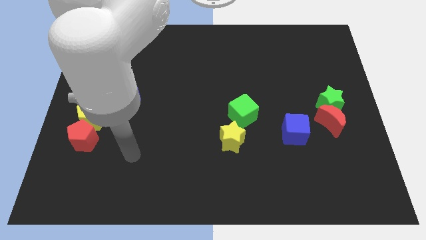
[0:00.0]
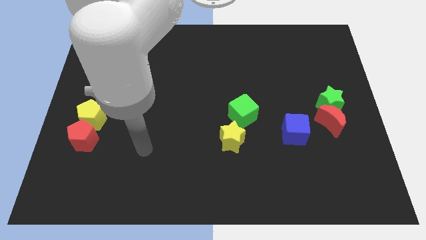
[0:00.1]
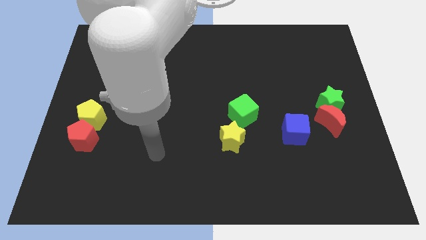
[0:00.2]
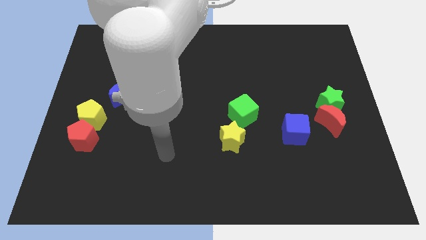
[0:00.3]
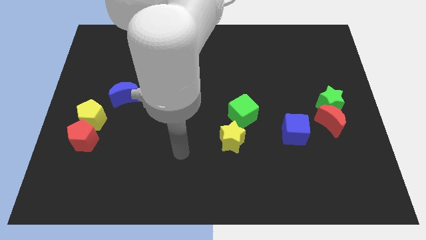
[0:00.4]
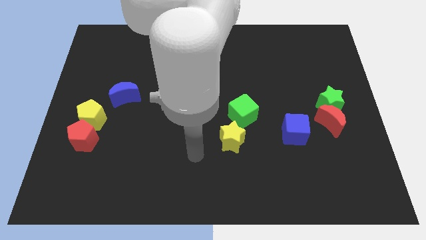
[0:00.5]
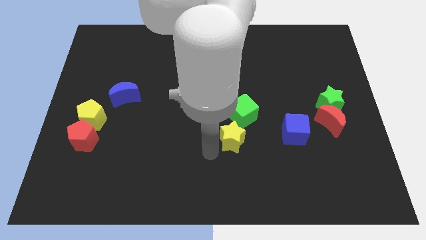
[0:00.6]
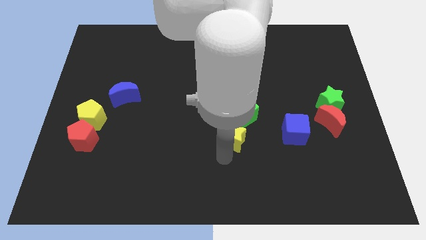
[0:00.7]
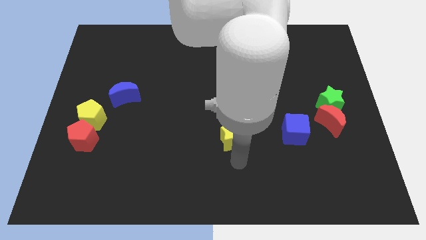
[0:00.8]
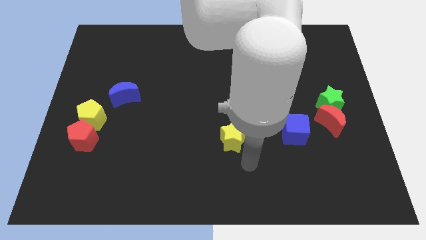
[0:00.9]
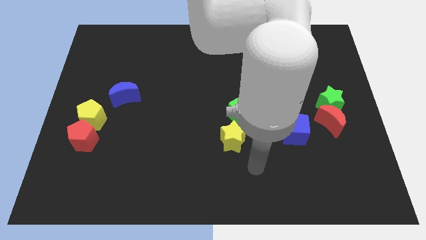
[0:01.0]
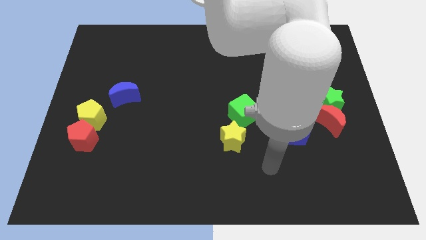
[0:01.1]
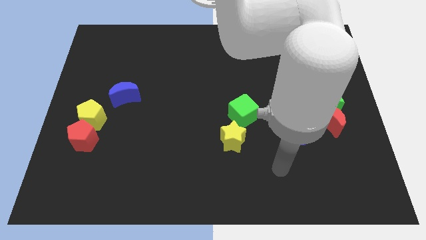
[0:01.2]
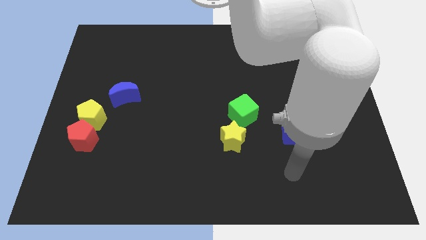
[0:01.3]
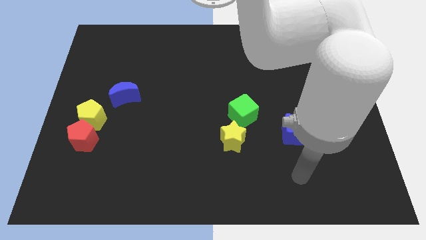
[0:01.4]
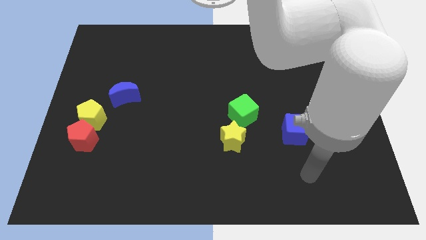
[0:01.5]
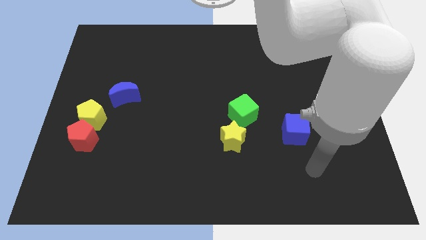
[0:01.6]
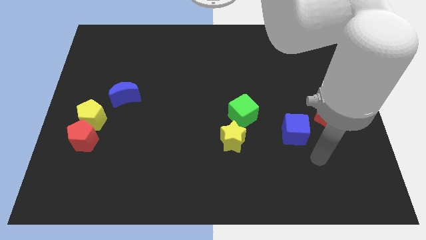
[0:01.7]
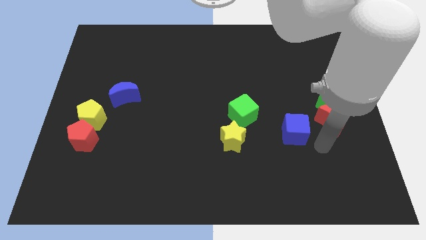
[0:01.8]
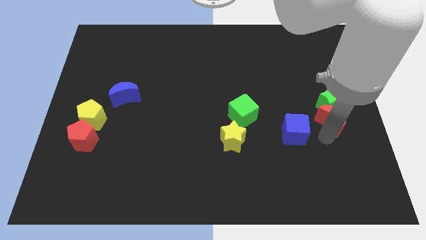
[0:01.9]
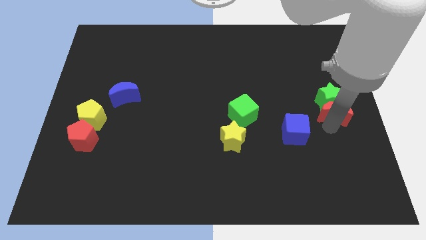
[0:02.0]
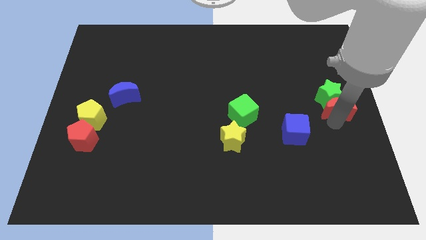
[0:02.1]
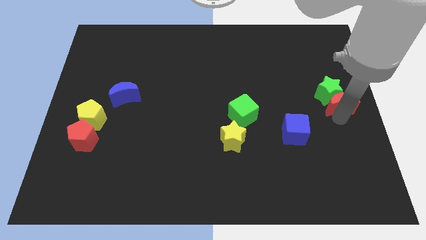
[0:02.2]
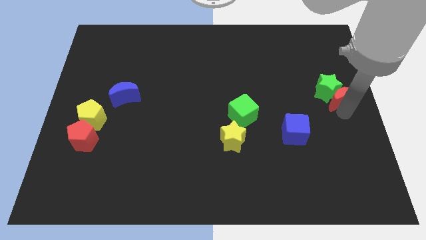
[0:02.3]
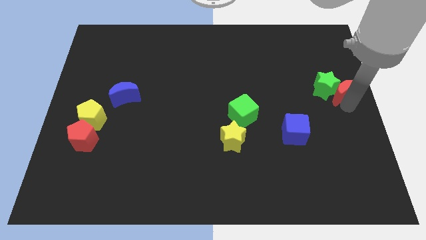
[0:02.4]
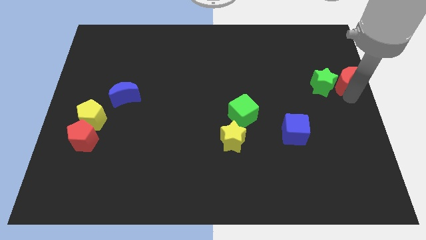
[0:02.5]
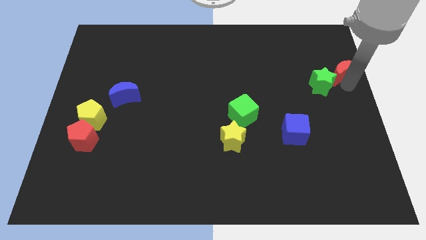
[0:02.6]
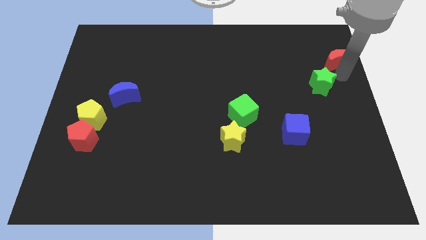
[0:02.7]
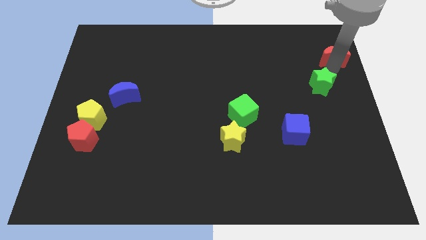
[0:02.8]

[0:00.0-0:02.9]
separate the green star from the red moon

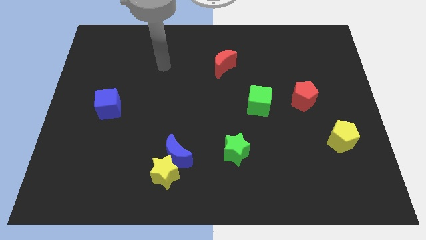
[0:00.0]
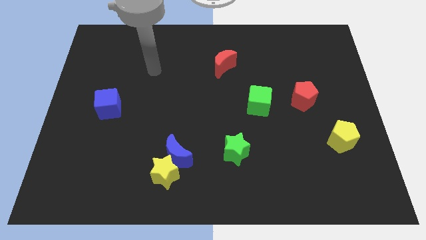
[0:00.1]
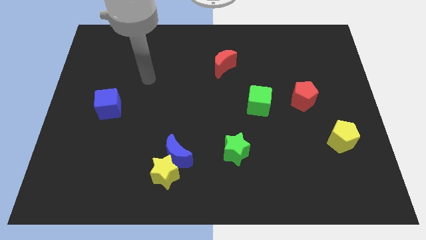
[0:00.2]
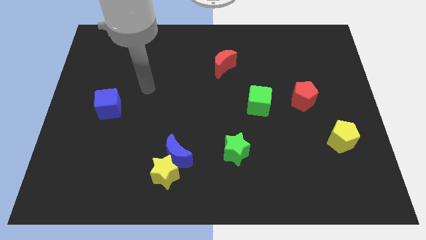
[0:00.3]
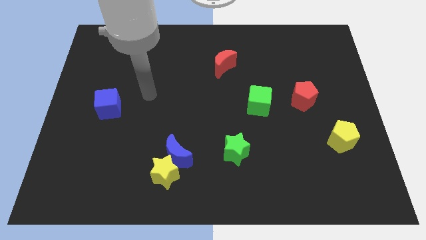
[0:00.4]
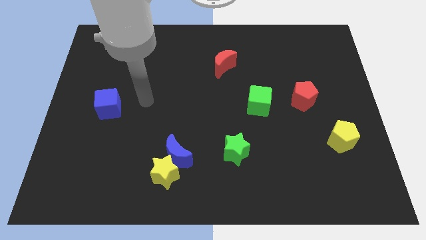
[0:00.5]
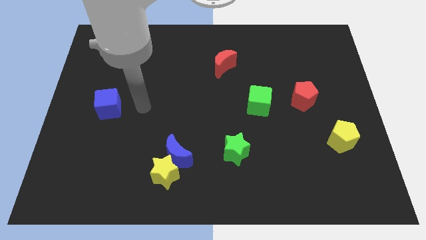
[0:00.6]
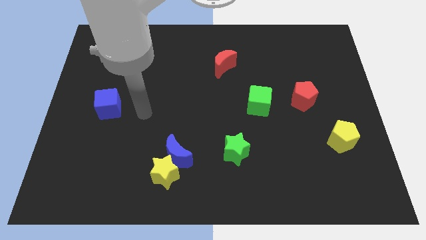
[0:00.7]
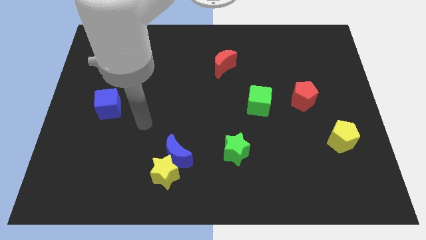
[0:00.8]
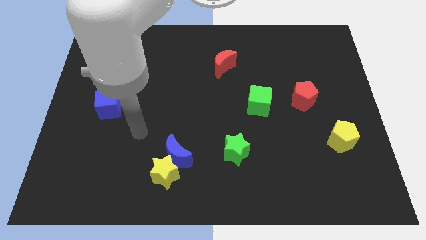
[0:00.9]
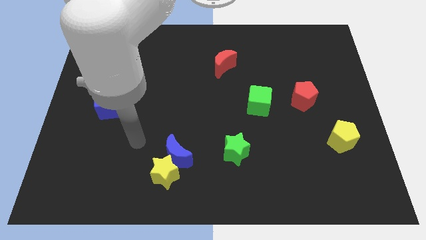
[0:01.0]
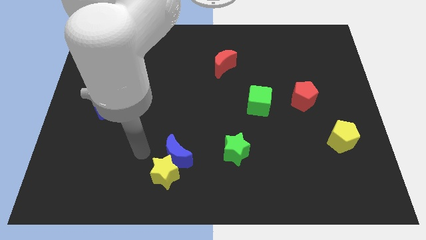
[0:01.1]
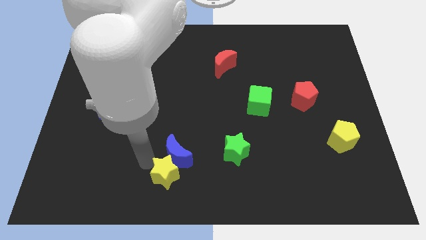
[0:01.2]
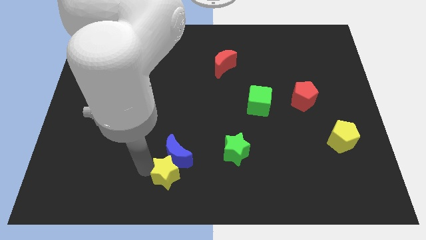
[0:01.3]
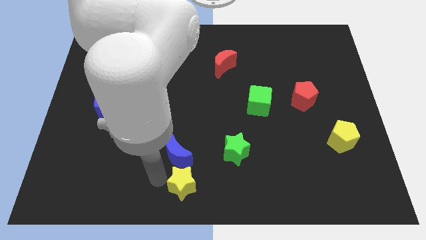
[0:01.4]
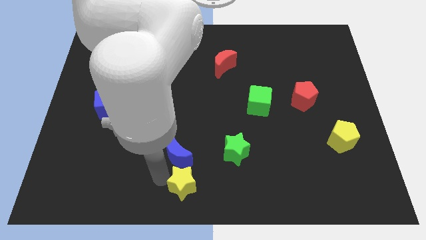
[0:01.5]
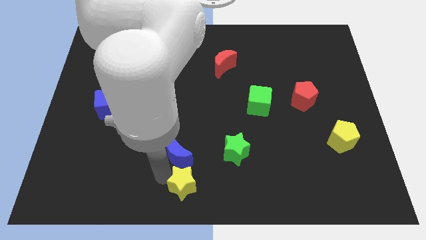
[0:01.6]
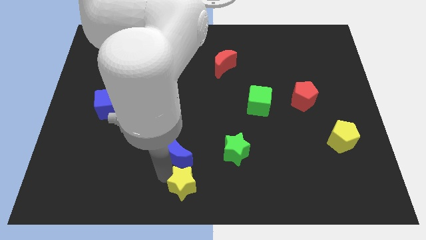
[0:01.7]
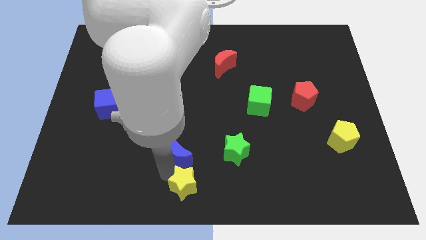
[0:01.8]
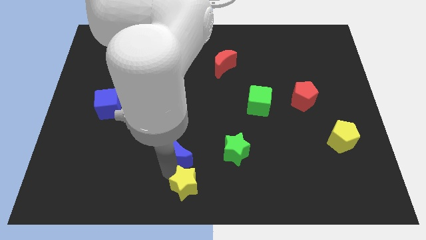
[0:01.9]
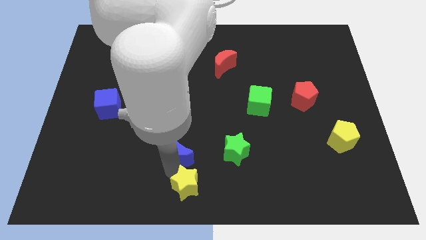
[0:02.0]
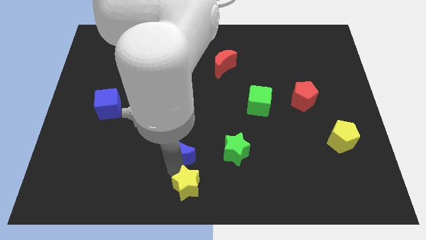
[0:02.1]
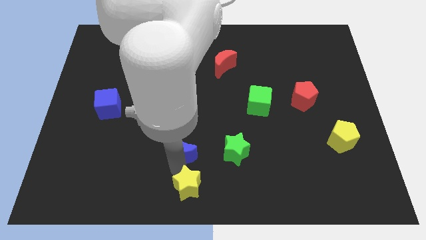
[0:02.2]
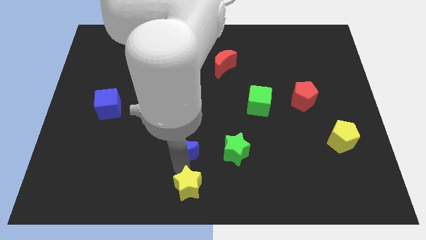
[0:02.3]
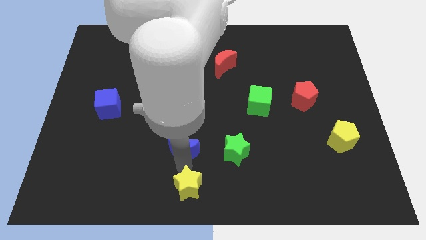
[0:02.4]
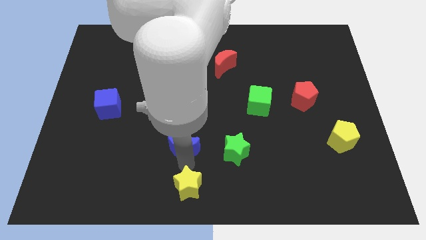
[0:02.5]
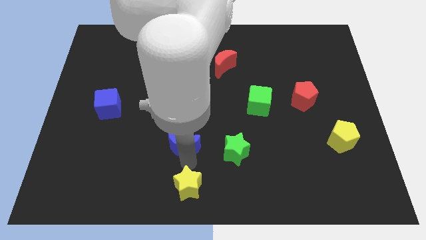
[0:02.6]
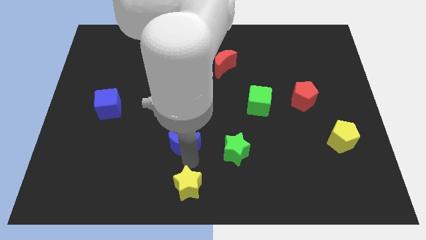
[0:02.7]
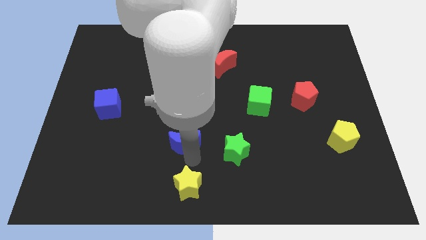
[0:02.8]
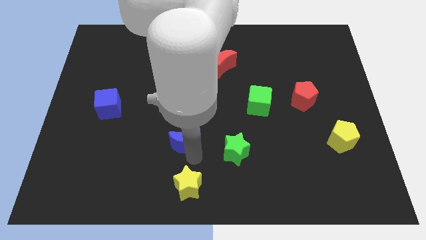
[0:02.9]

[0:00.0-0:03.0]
separate the blue moon from the yellow star

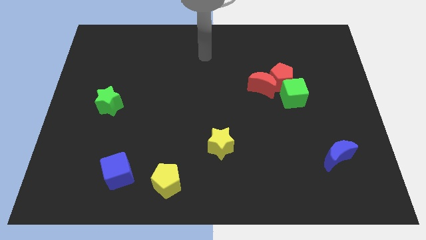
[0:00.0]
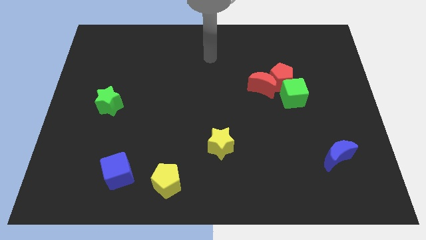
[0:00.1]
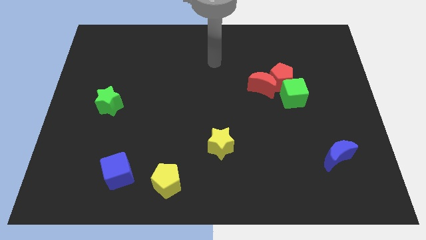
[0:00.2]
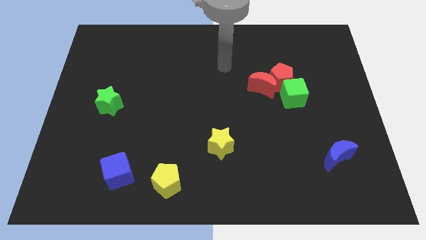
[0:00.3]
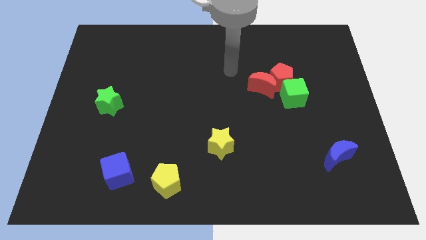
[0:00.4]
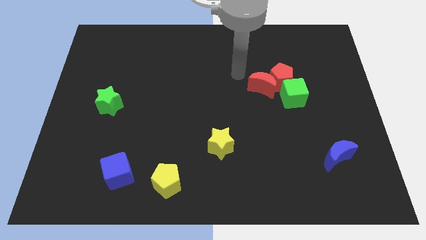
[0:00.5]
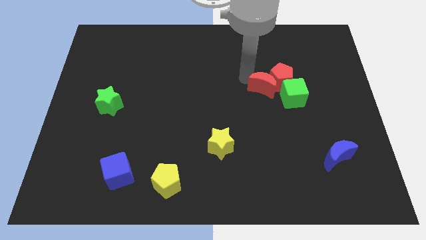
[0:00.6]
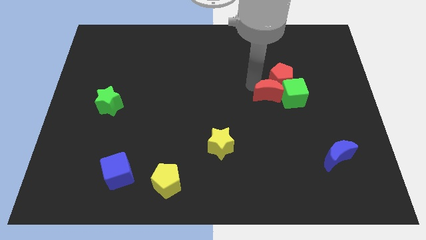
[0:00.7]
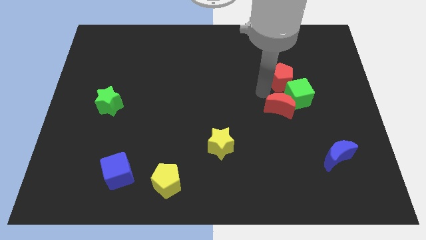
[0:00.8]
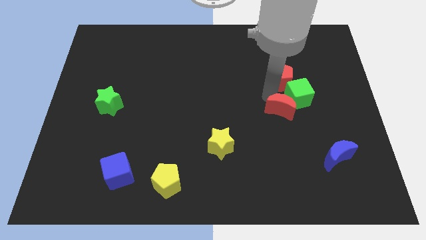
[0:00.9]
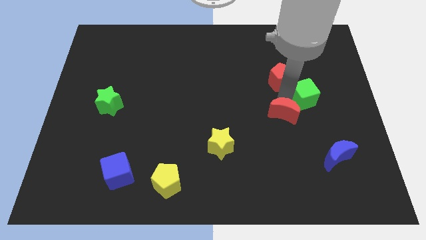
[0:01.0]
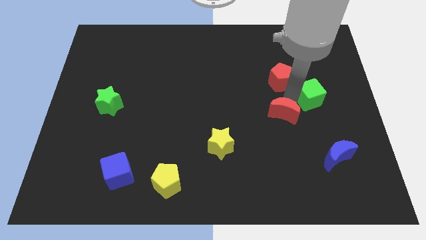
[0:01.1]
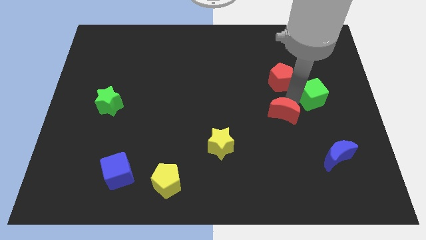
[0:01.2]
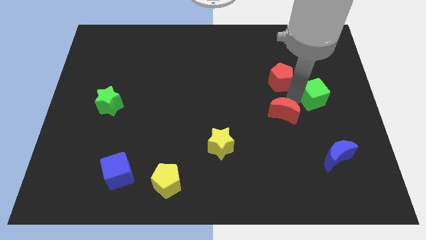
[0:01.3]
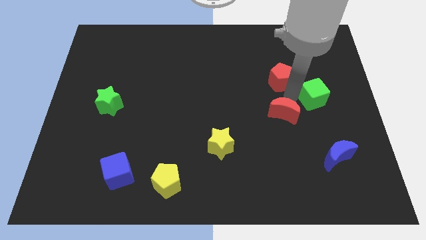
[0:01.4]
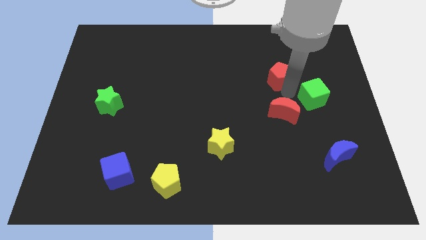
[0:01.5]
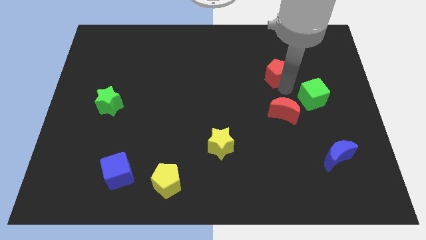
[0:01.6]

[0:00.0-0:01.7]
separate the red pentagon from the red moon and green cube

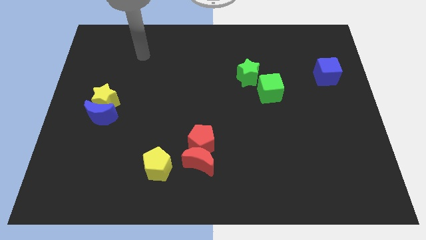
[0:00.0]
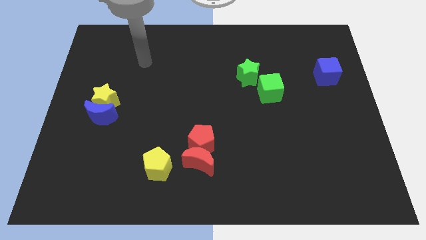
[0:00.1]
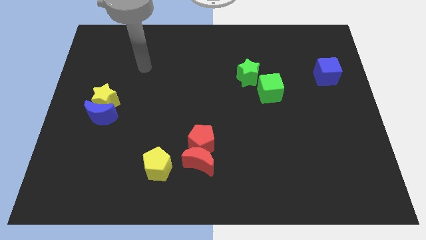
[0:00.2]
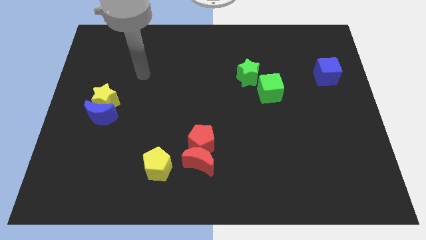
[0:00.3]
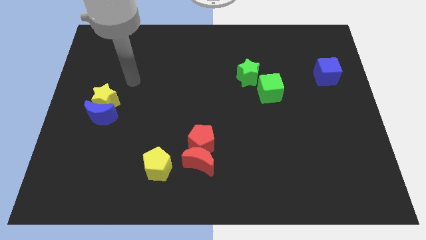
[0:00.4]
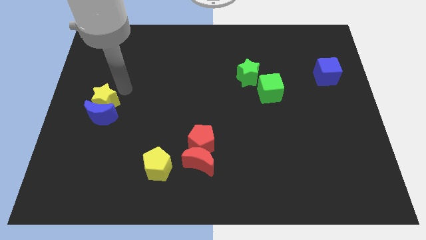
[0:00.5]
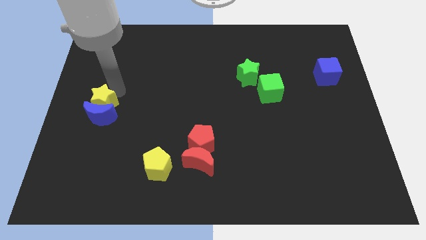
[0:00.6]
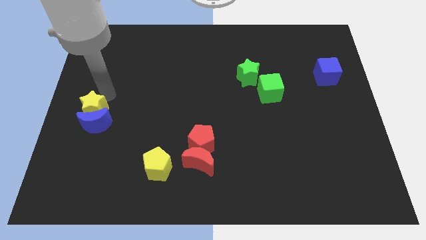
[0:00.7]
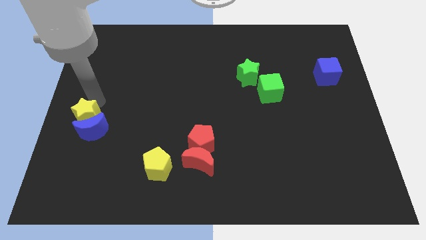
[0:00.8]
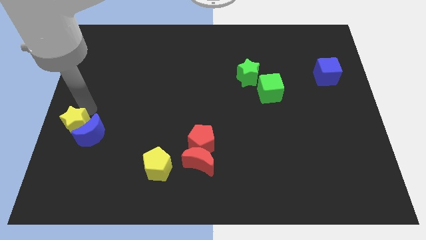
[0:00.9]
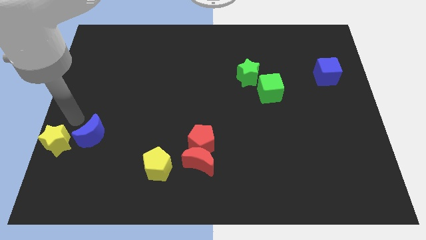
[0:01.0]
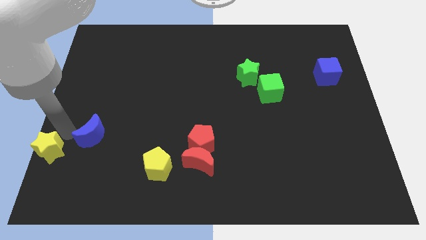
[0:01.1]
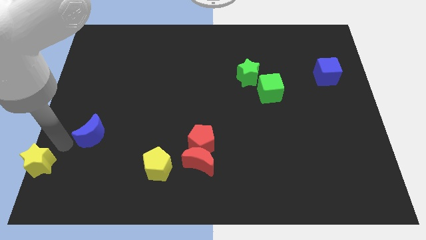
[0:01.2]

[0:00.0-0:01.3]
move the blue moon away from the yellow star

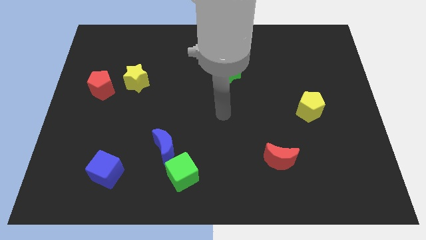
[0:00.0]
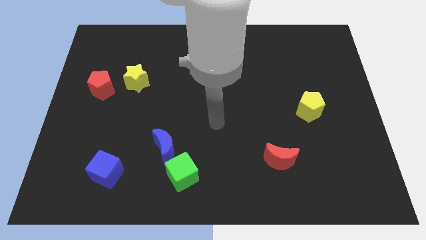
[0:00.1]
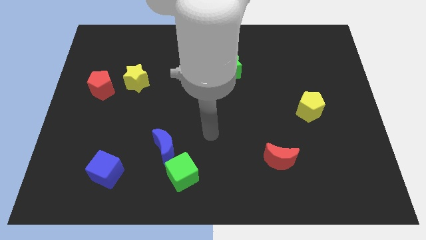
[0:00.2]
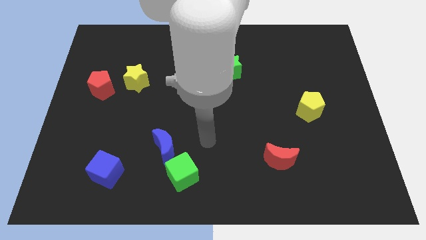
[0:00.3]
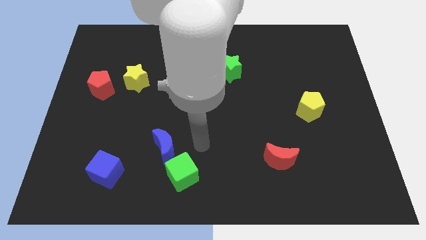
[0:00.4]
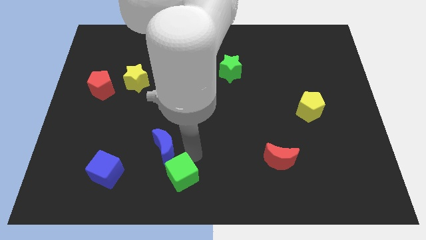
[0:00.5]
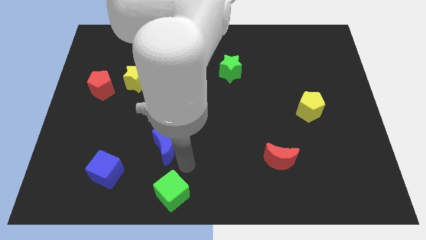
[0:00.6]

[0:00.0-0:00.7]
move the blue moon away from the green cube
